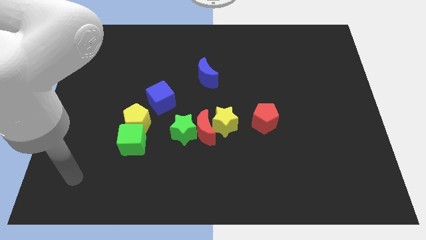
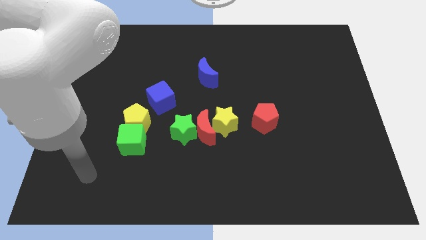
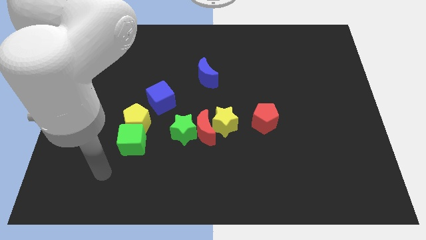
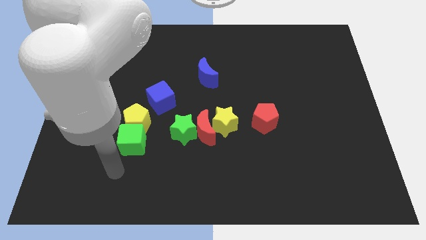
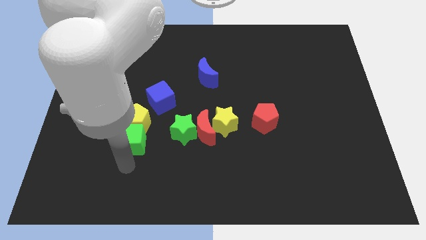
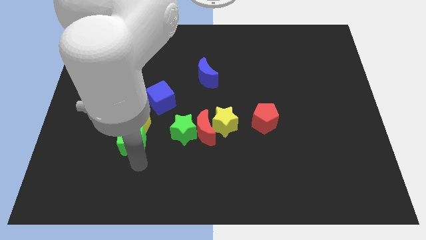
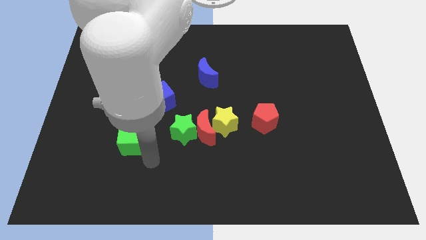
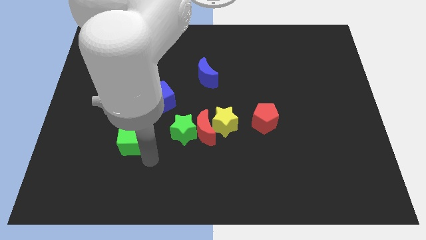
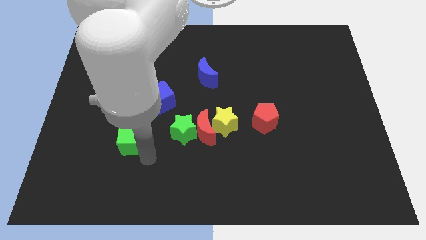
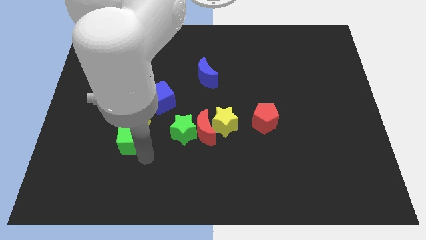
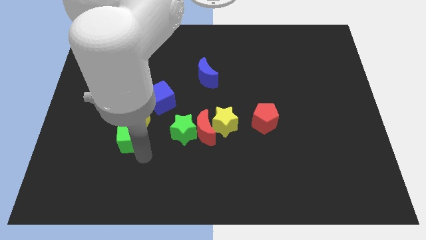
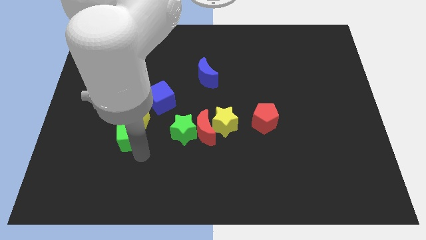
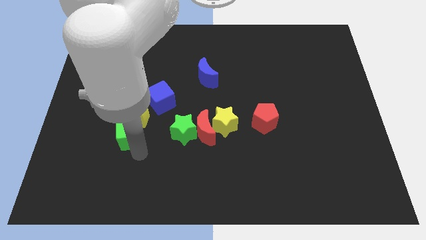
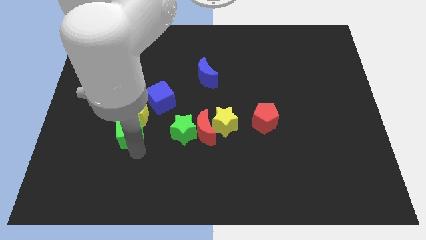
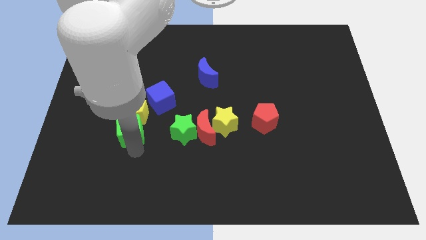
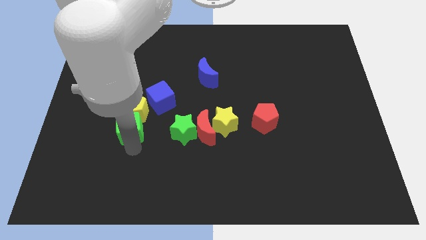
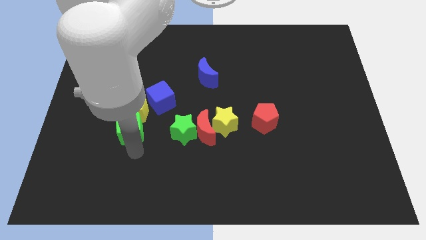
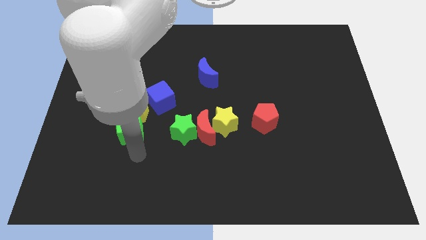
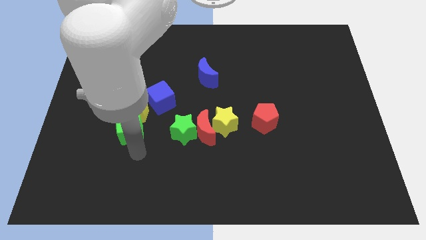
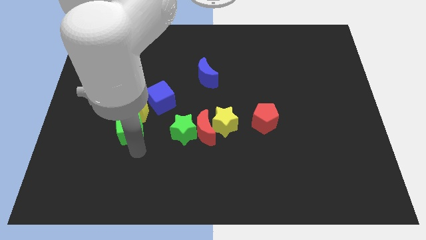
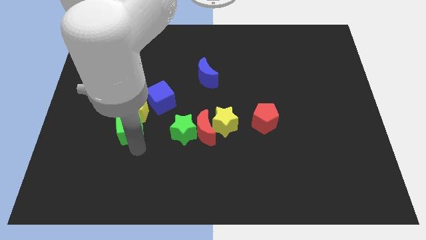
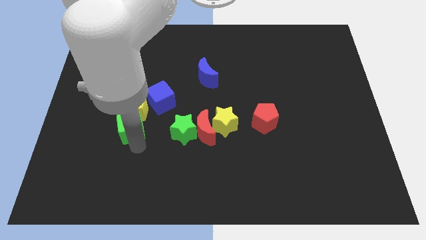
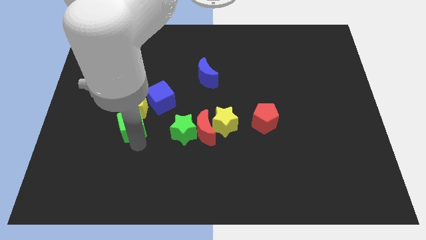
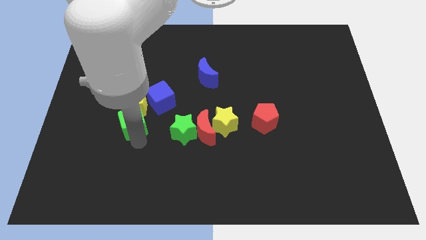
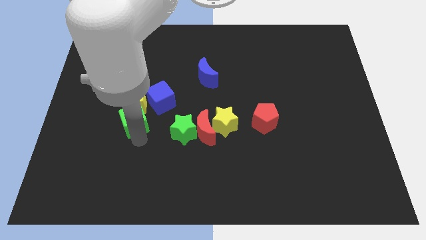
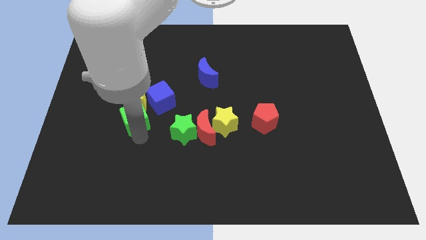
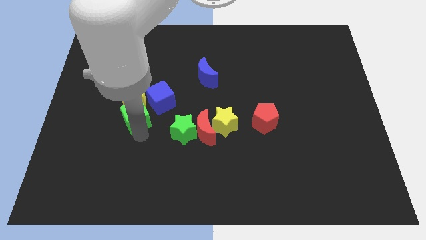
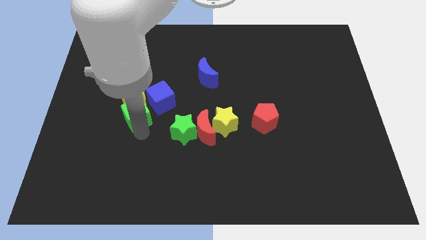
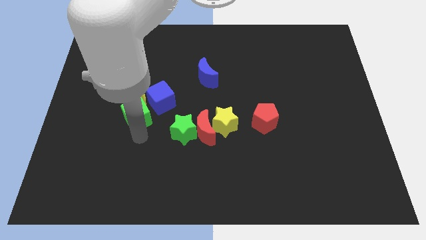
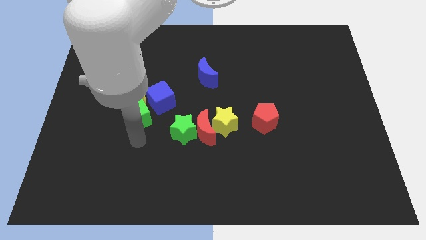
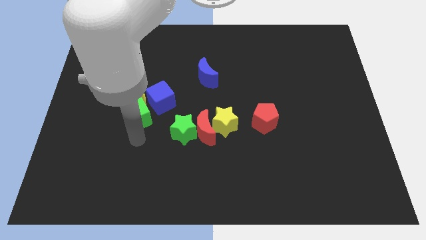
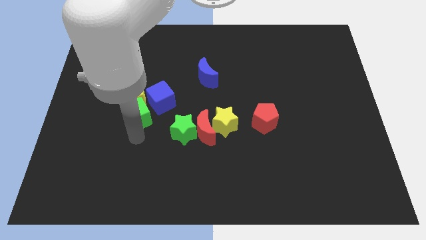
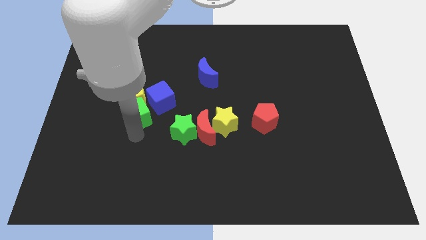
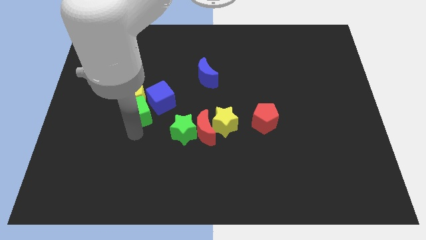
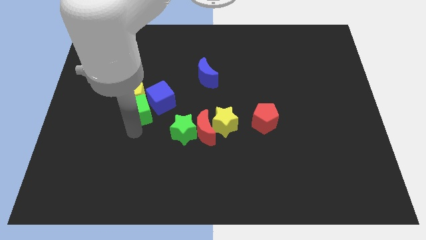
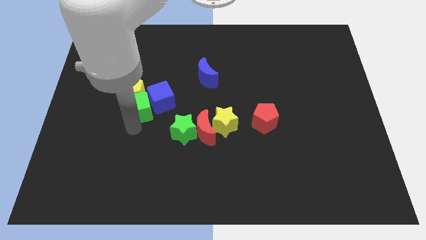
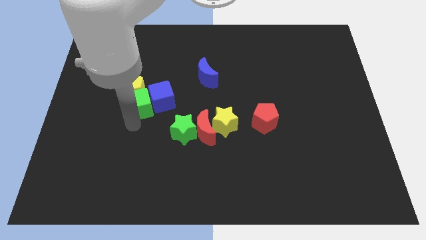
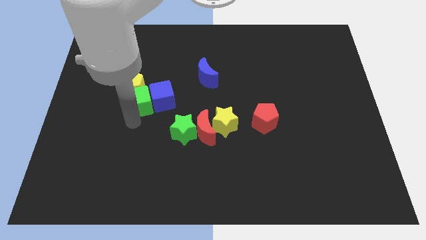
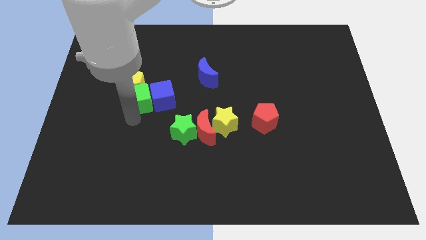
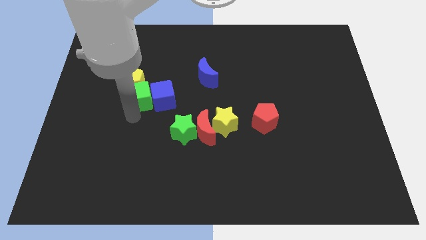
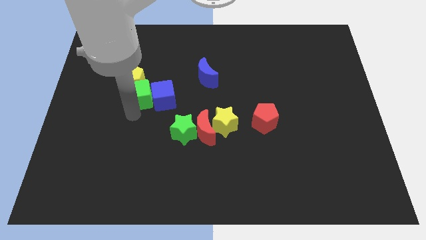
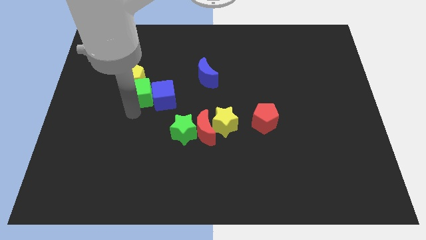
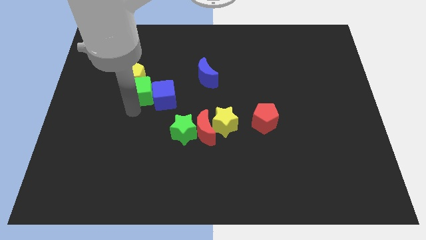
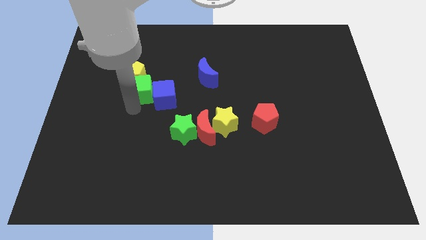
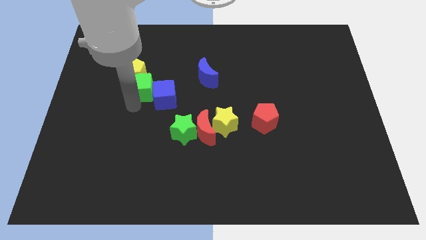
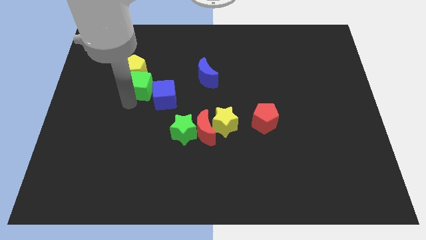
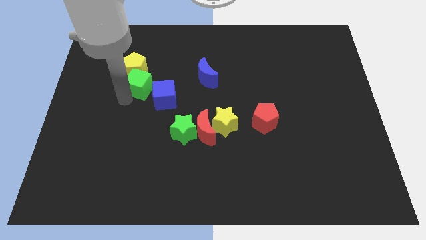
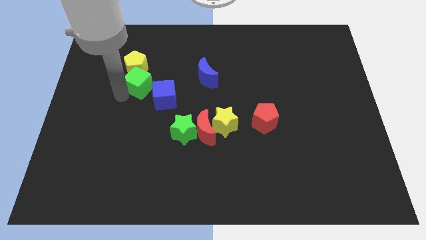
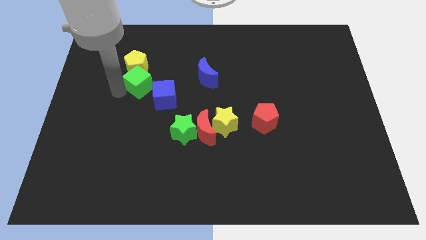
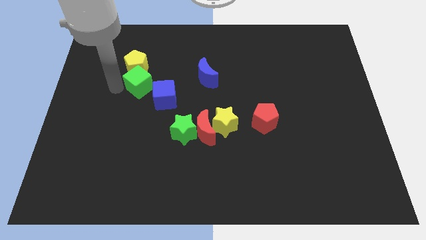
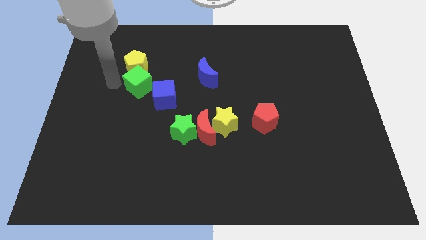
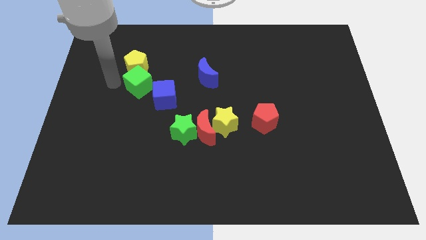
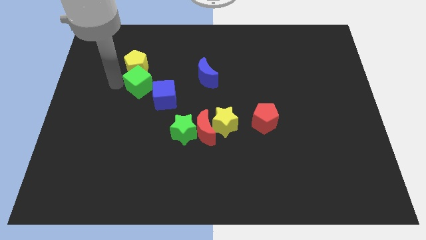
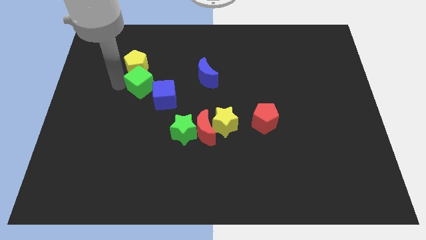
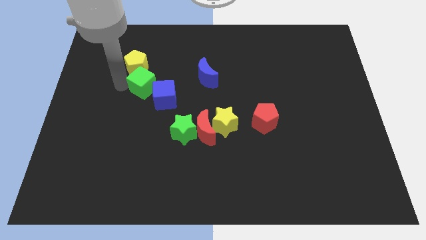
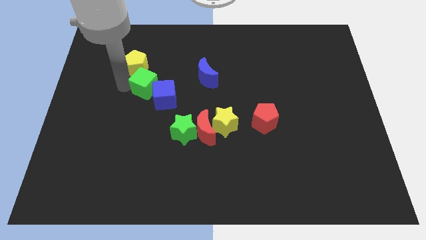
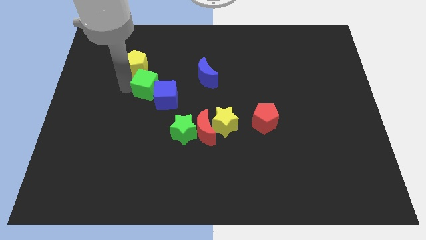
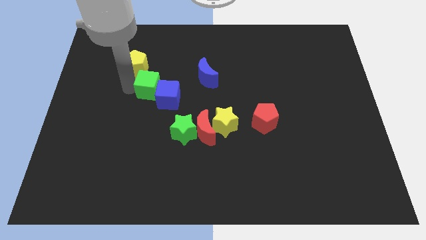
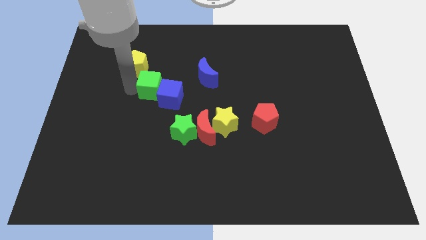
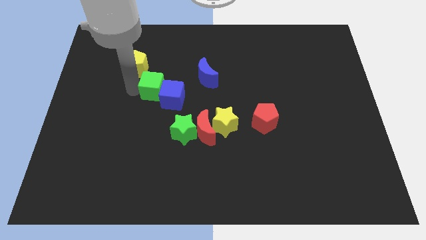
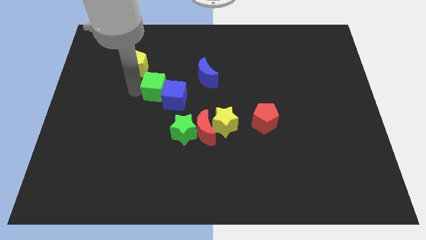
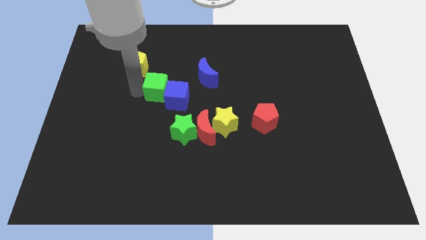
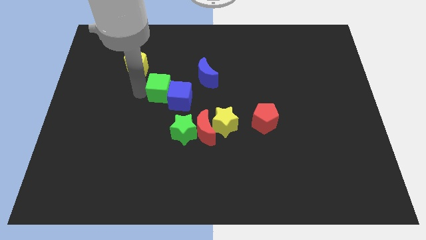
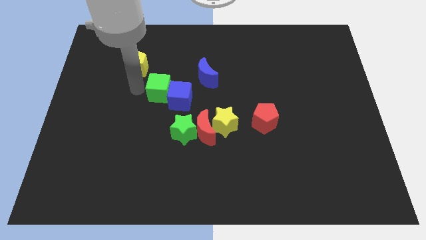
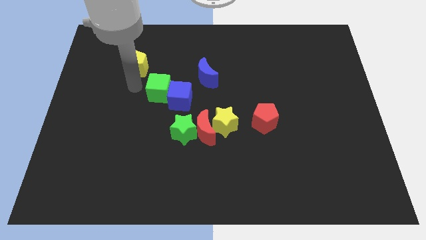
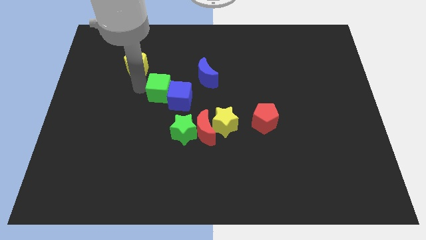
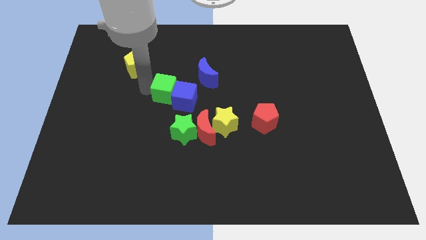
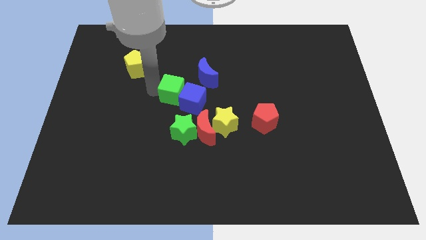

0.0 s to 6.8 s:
put the green cube to the top side of the green star

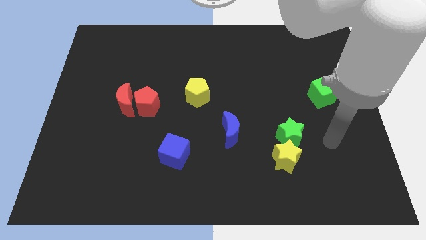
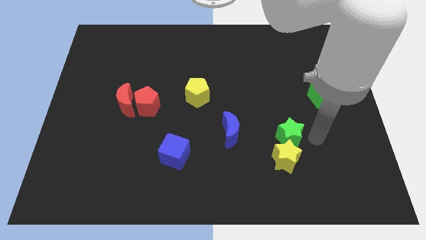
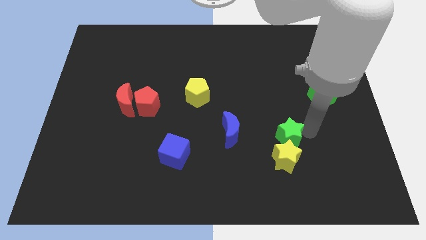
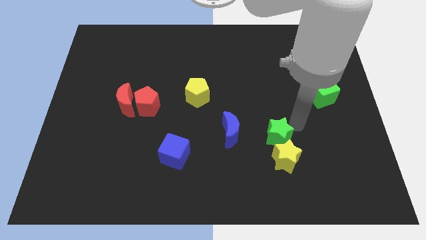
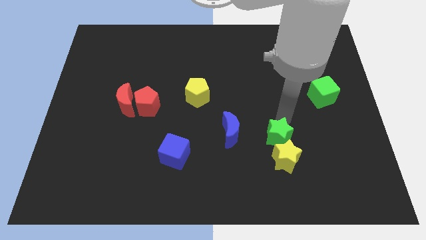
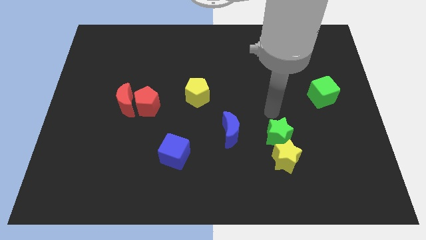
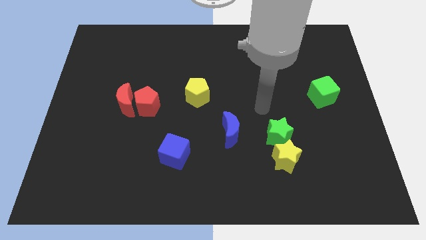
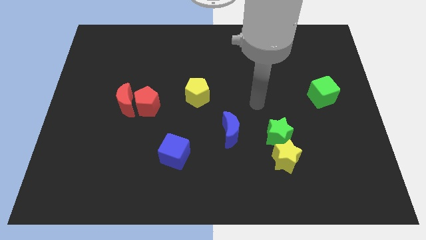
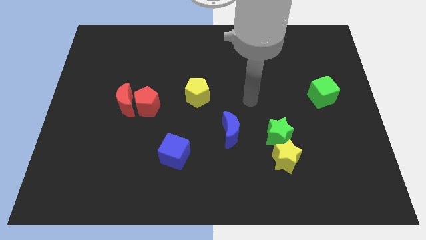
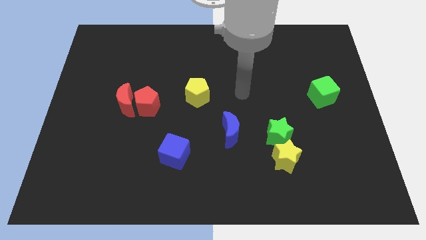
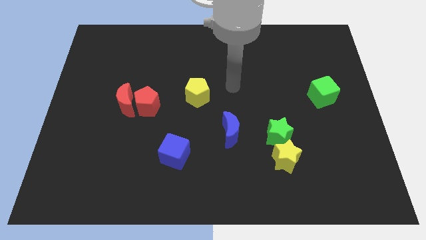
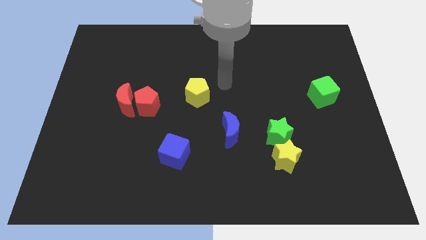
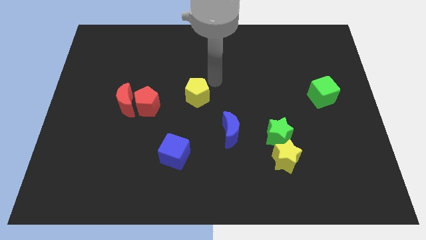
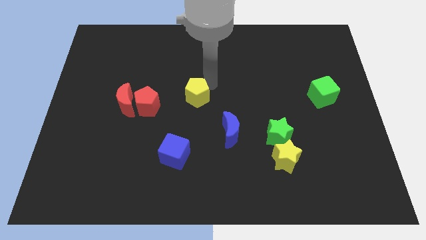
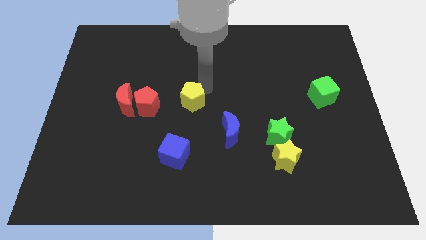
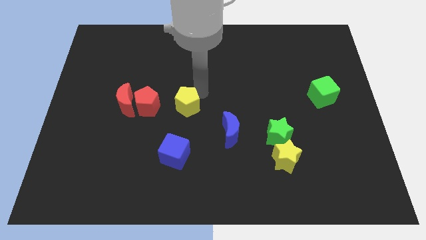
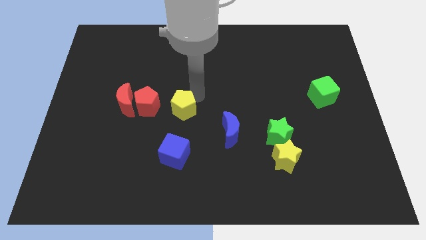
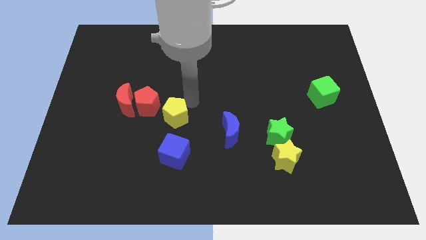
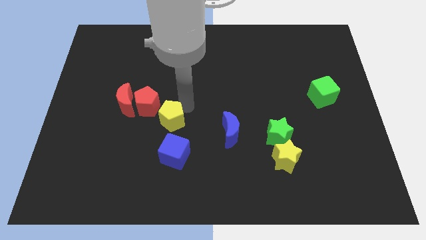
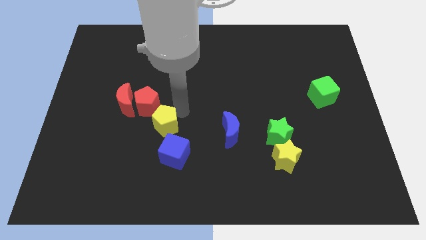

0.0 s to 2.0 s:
slide the yellow pentagon diagonally up and to the left of the blue cube
